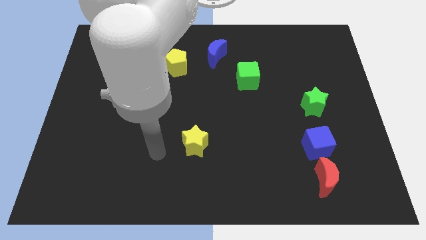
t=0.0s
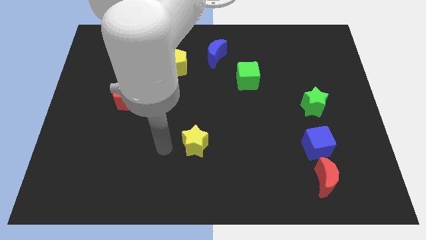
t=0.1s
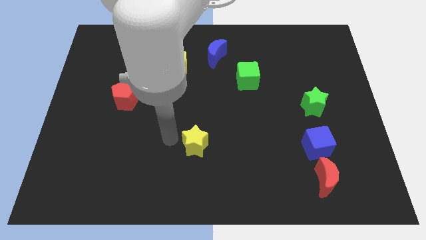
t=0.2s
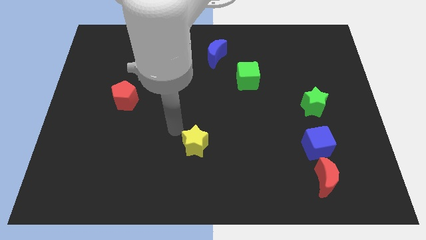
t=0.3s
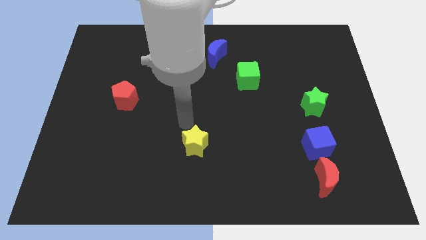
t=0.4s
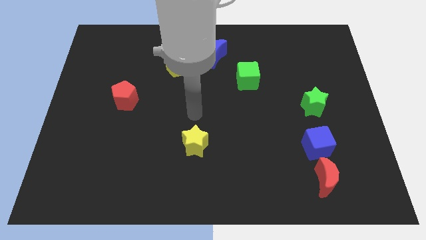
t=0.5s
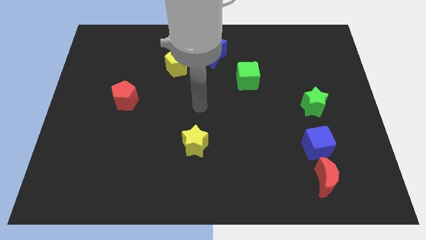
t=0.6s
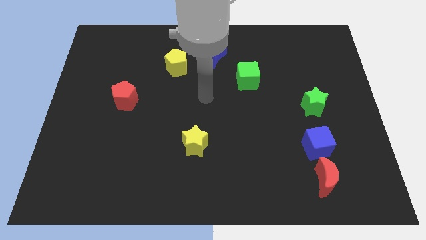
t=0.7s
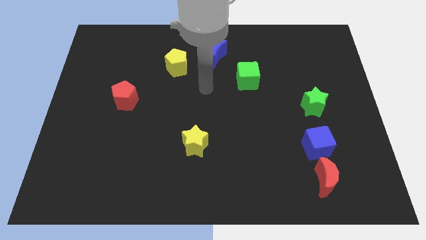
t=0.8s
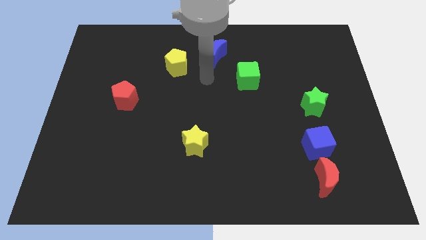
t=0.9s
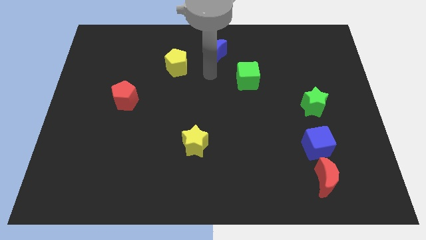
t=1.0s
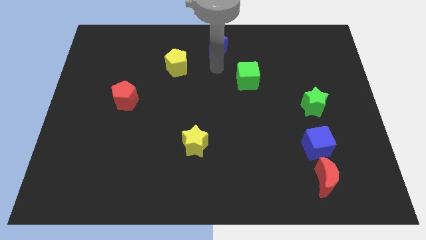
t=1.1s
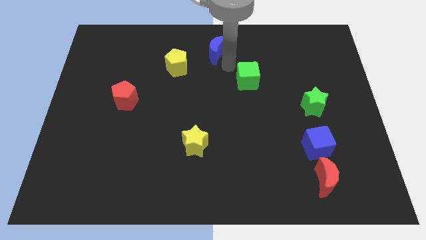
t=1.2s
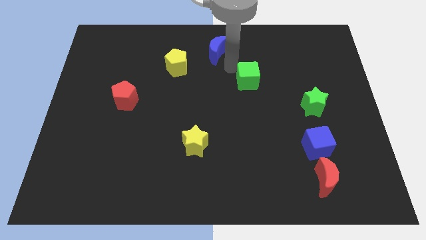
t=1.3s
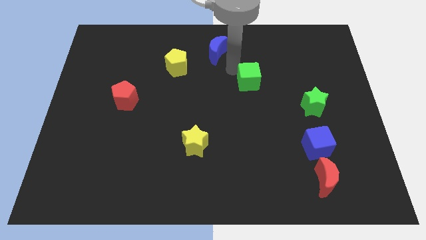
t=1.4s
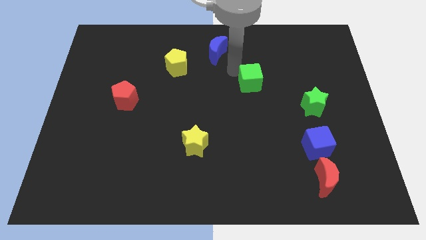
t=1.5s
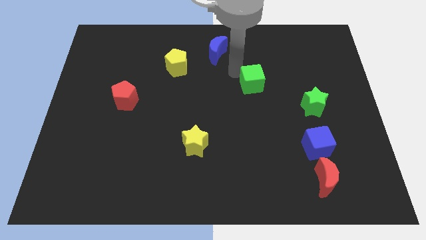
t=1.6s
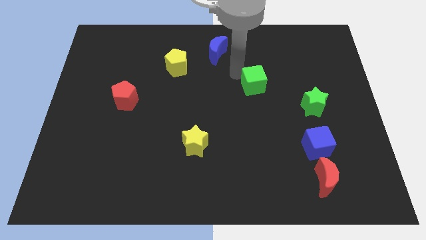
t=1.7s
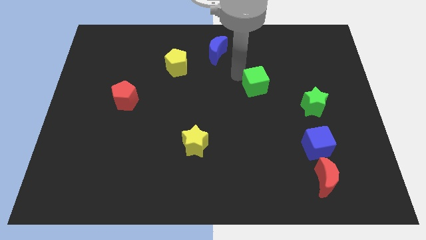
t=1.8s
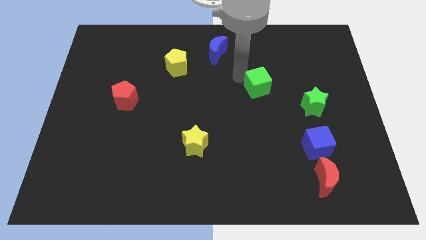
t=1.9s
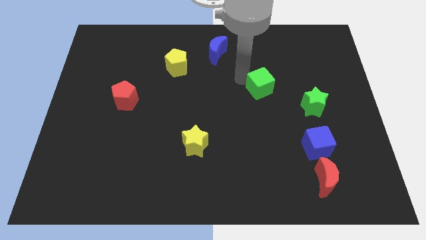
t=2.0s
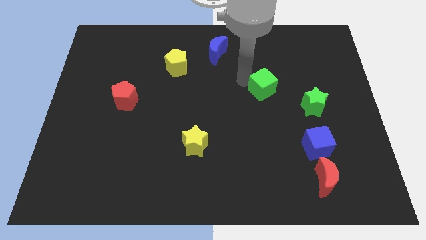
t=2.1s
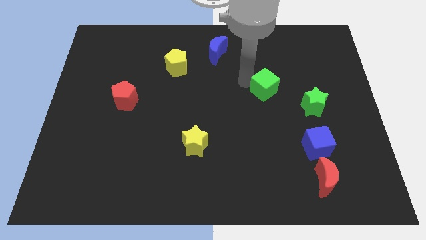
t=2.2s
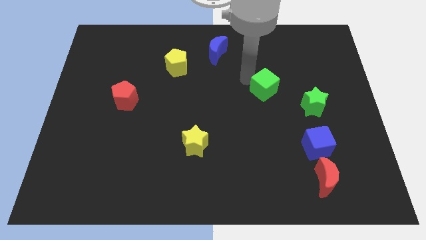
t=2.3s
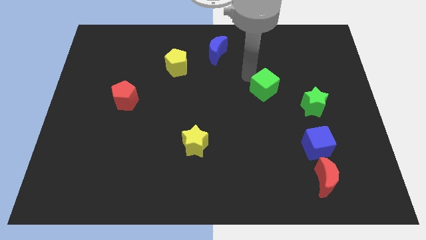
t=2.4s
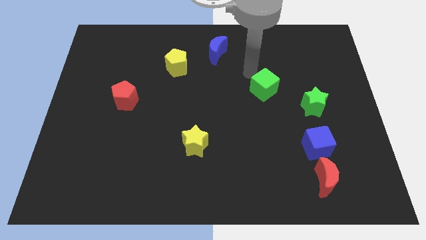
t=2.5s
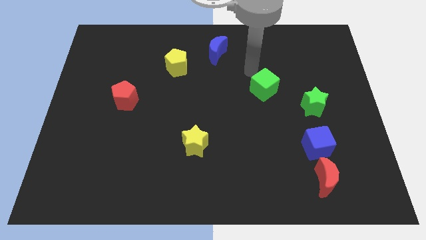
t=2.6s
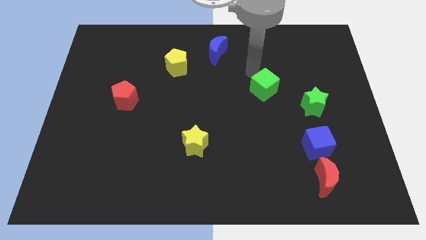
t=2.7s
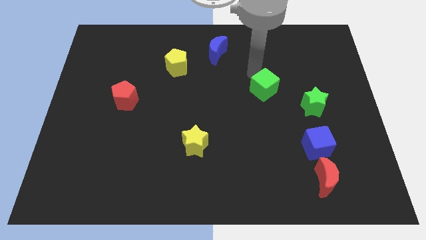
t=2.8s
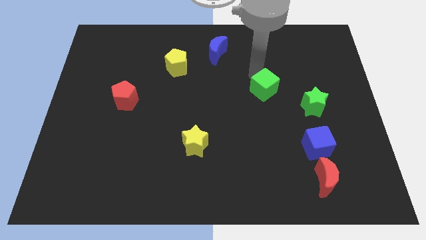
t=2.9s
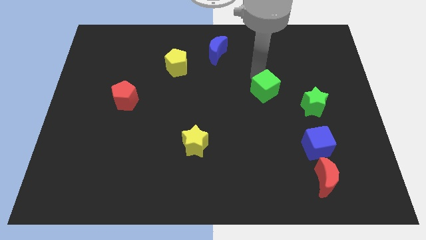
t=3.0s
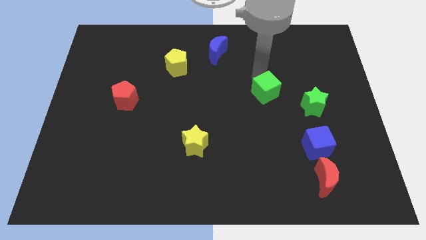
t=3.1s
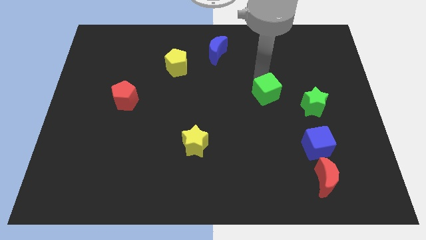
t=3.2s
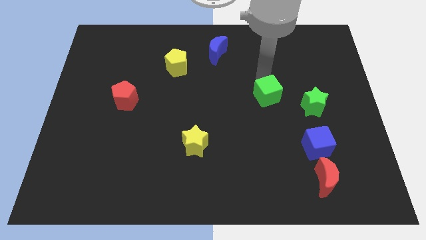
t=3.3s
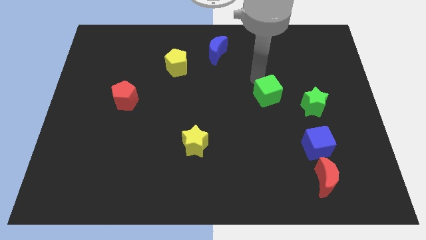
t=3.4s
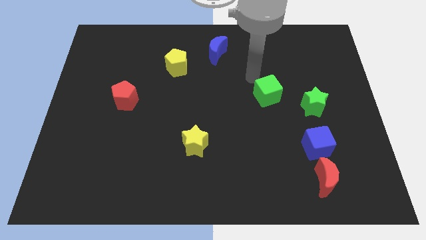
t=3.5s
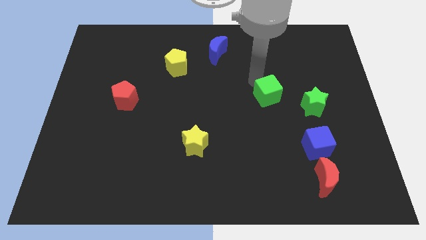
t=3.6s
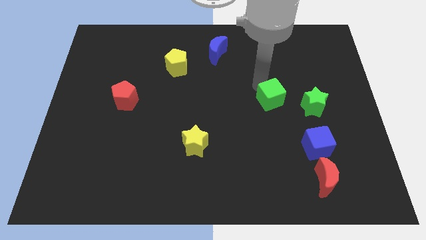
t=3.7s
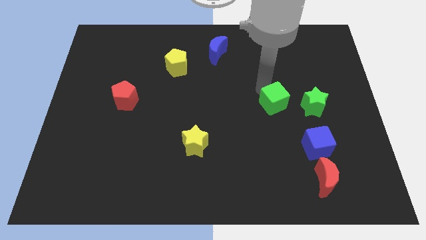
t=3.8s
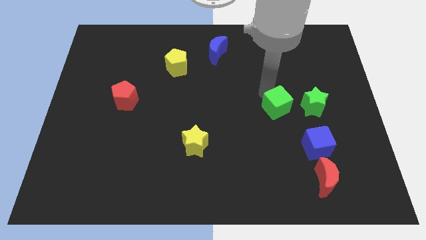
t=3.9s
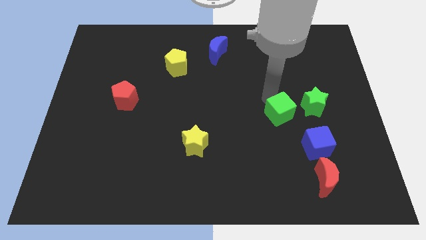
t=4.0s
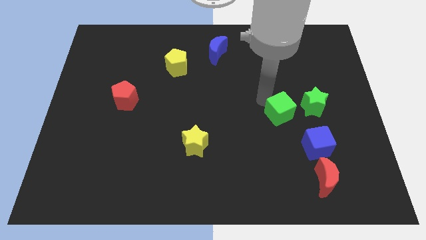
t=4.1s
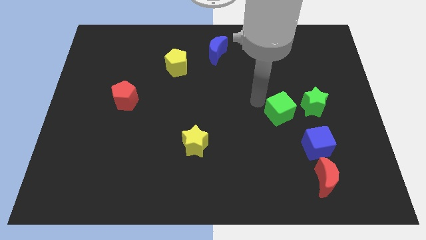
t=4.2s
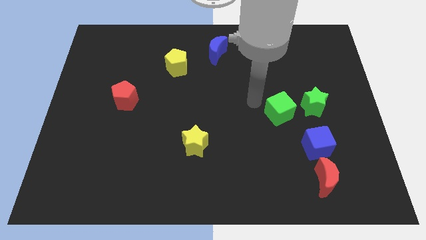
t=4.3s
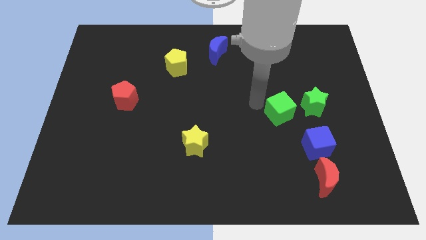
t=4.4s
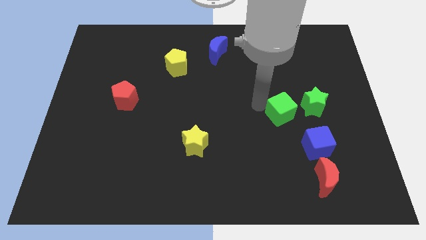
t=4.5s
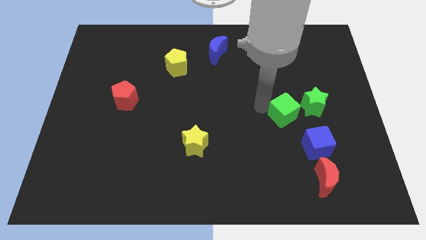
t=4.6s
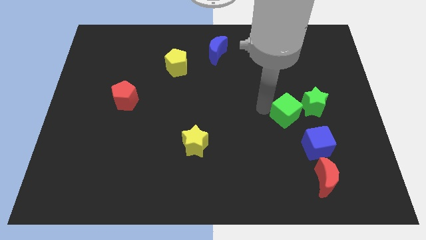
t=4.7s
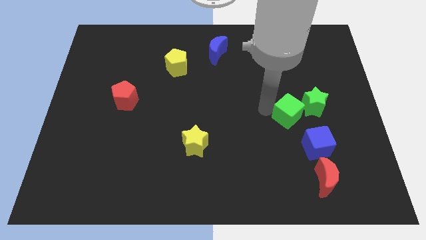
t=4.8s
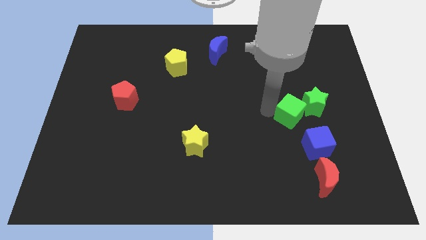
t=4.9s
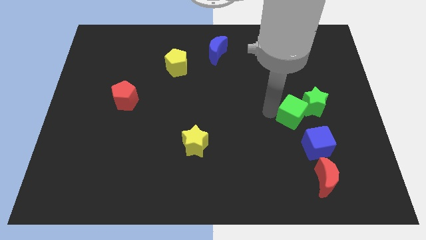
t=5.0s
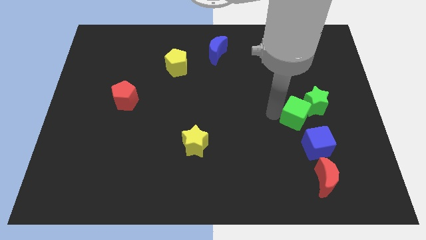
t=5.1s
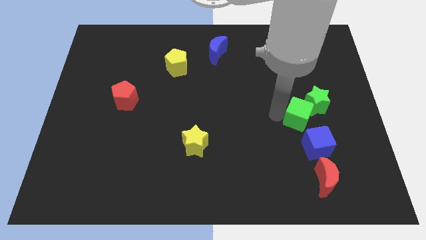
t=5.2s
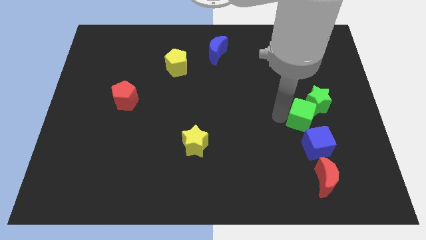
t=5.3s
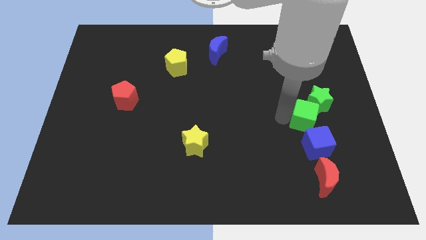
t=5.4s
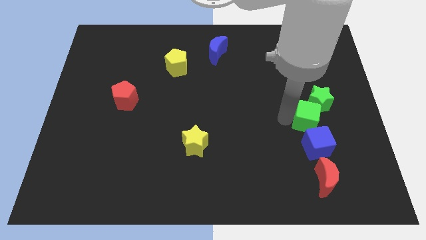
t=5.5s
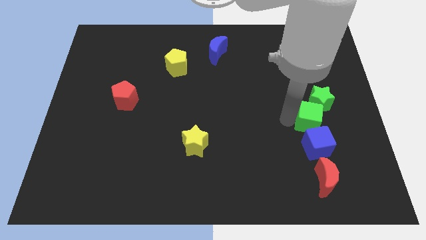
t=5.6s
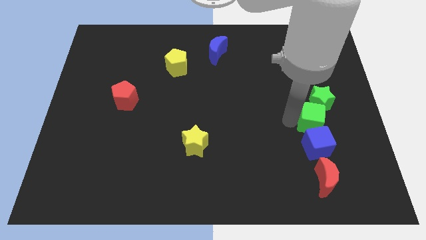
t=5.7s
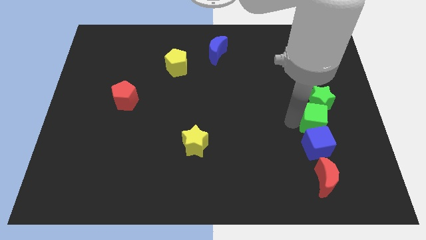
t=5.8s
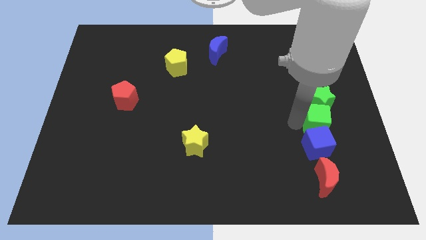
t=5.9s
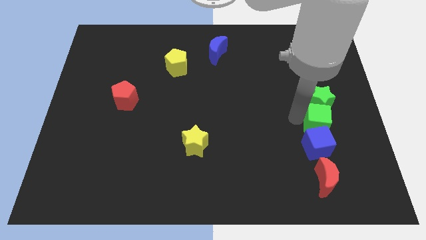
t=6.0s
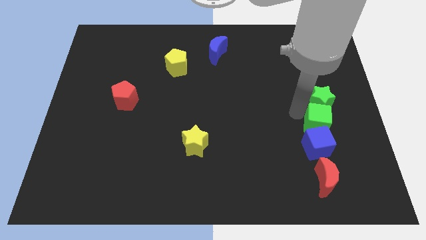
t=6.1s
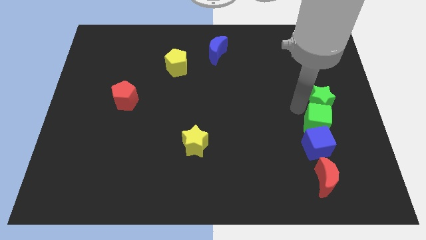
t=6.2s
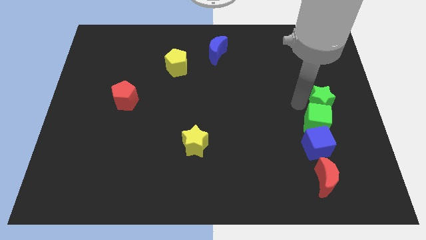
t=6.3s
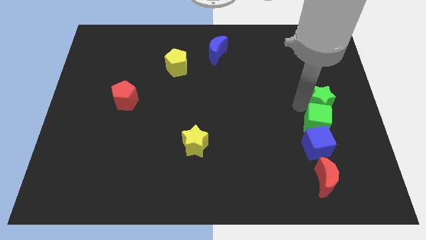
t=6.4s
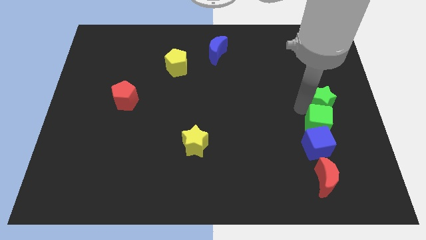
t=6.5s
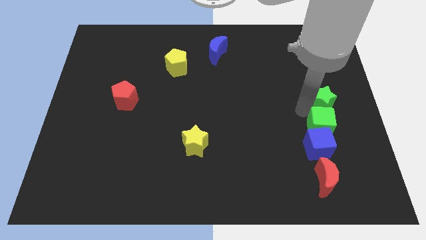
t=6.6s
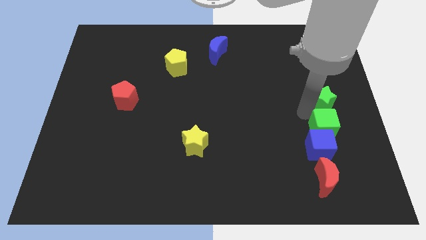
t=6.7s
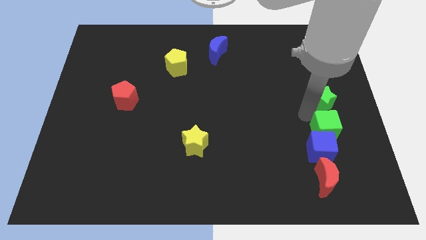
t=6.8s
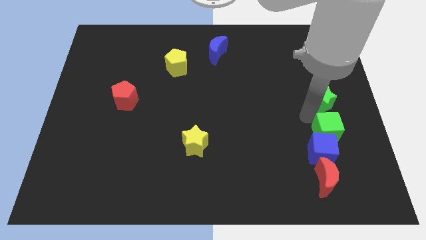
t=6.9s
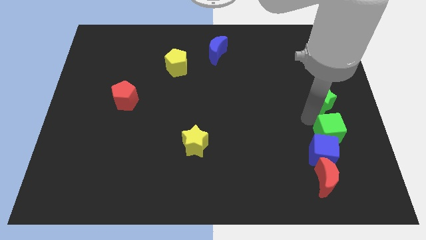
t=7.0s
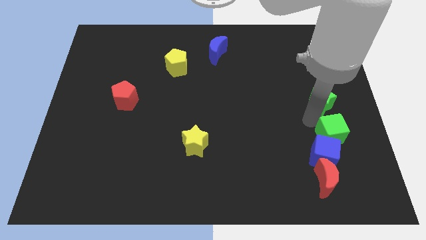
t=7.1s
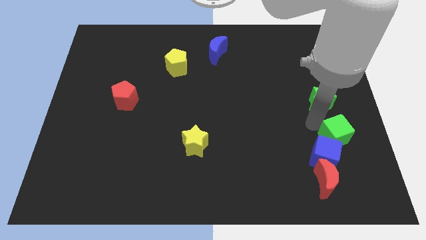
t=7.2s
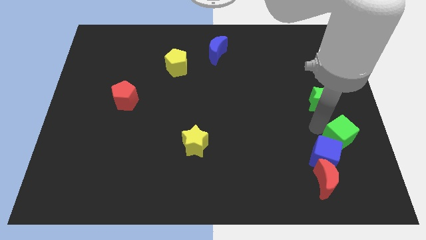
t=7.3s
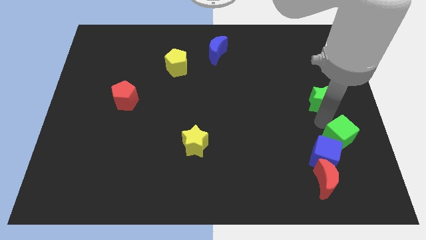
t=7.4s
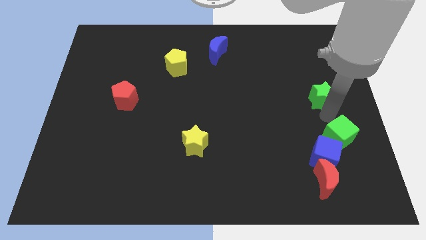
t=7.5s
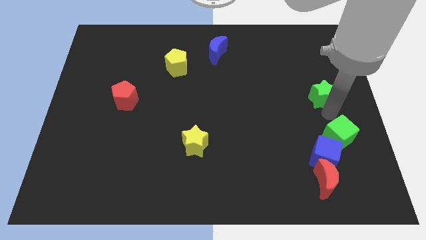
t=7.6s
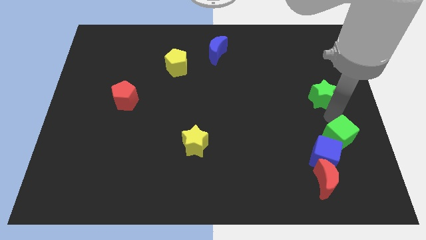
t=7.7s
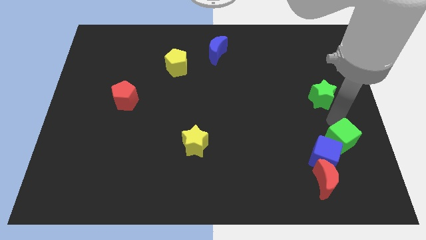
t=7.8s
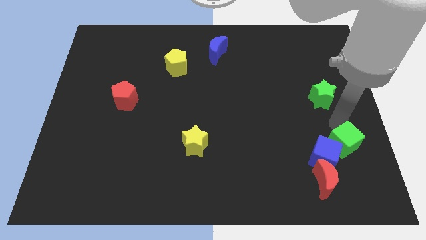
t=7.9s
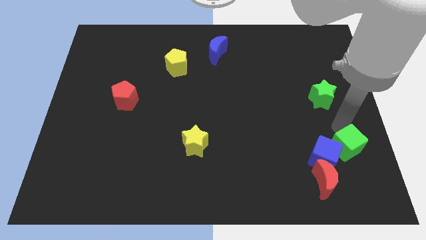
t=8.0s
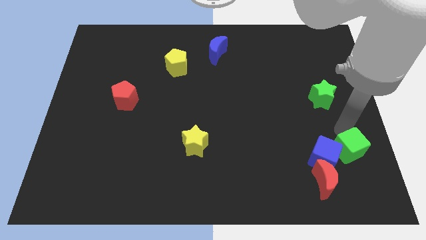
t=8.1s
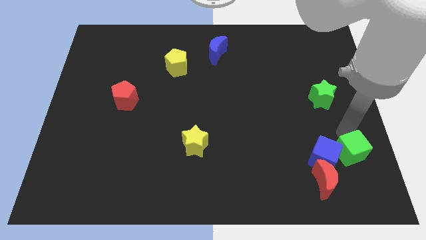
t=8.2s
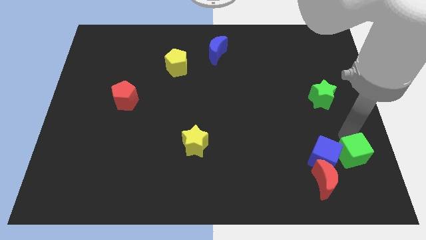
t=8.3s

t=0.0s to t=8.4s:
slide the green cube to the bottom right side of the blue cube
